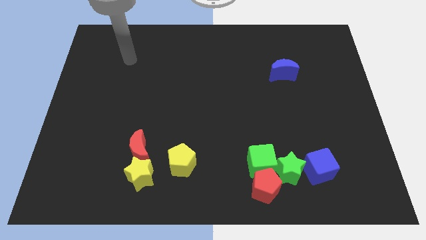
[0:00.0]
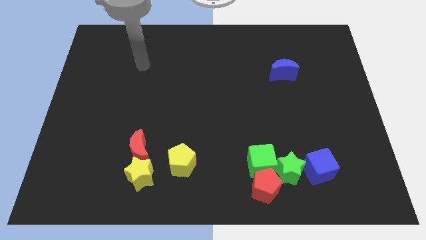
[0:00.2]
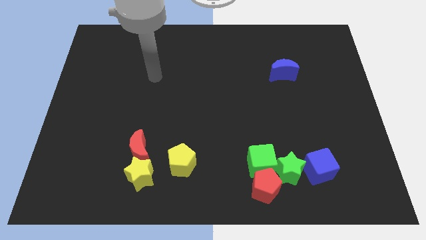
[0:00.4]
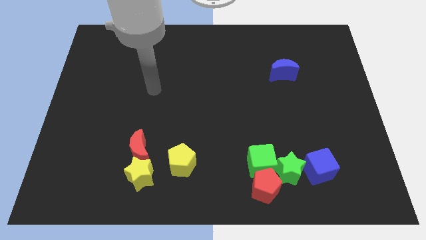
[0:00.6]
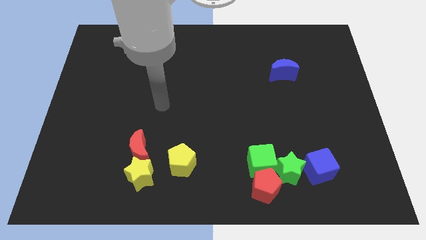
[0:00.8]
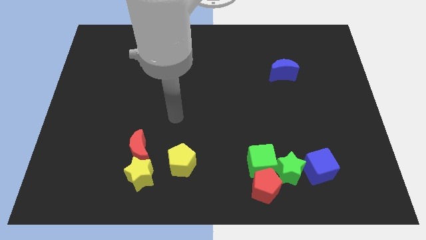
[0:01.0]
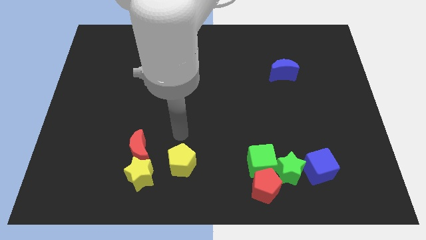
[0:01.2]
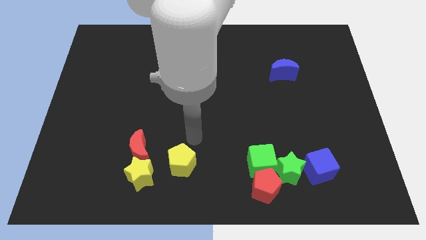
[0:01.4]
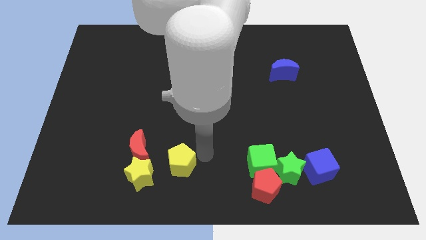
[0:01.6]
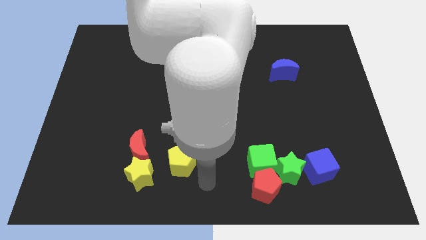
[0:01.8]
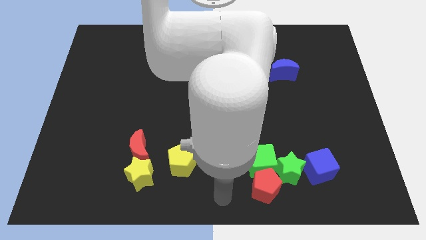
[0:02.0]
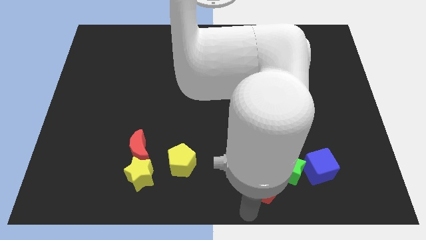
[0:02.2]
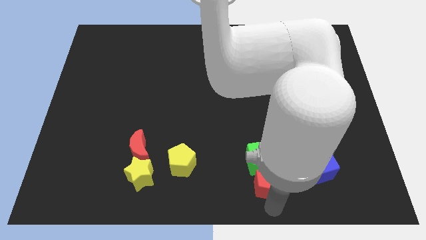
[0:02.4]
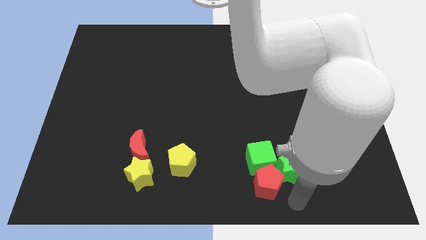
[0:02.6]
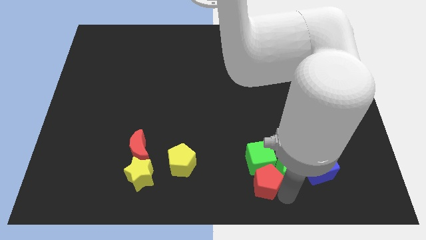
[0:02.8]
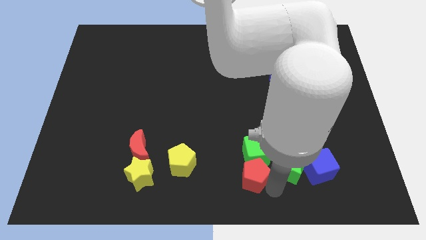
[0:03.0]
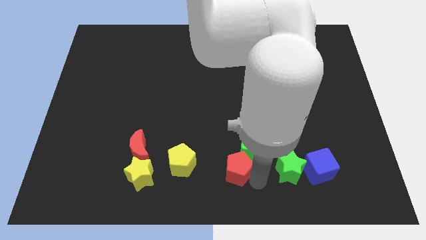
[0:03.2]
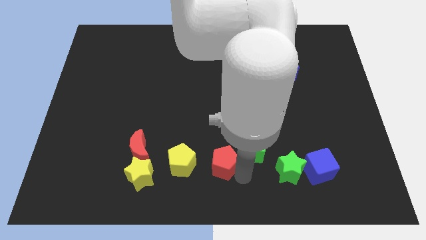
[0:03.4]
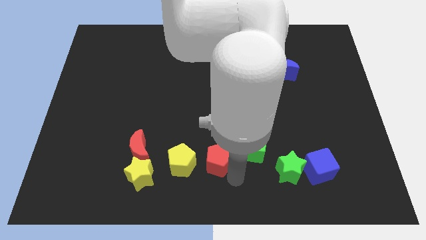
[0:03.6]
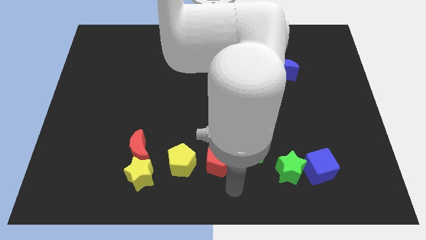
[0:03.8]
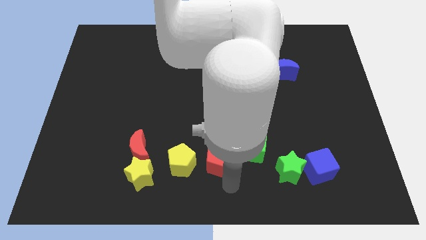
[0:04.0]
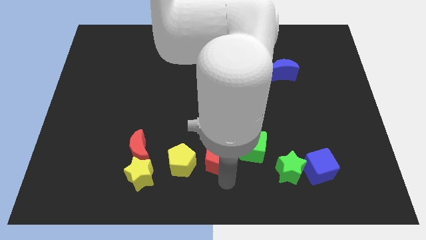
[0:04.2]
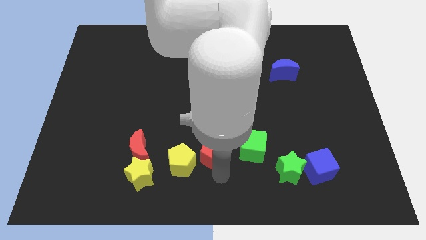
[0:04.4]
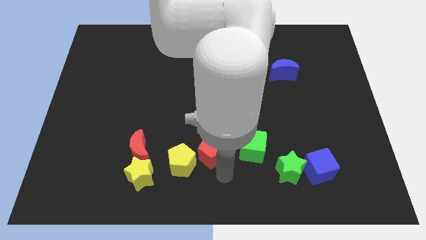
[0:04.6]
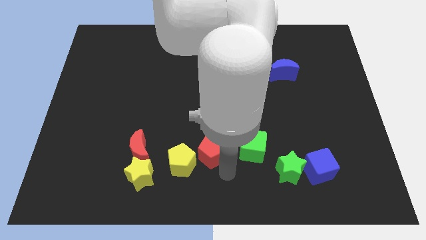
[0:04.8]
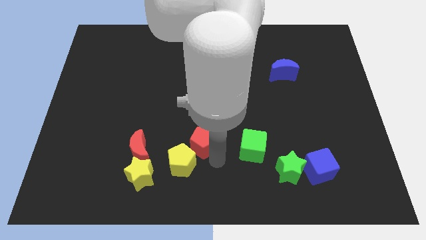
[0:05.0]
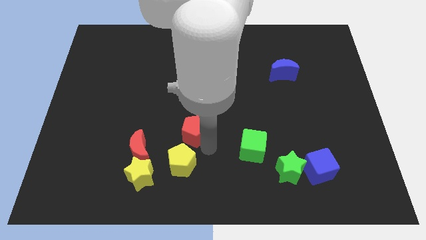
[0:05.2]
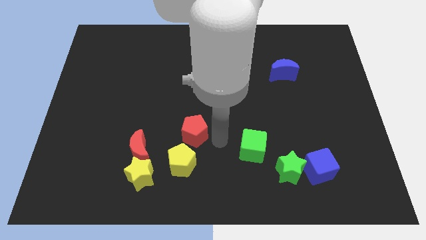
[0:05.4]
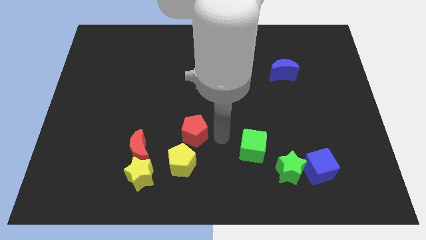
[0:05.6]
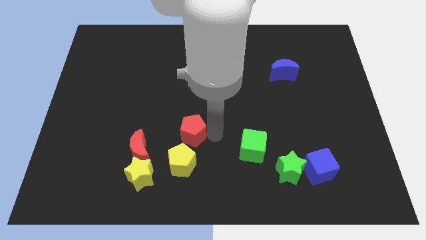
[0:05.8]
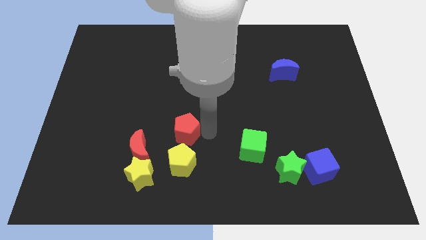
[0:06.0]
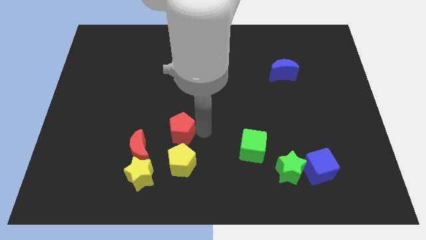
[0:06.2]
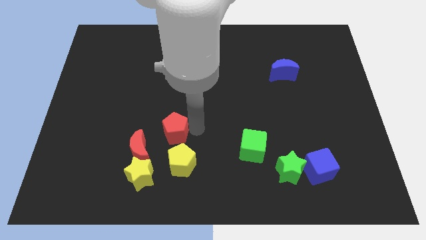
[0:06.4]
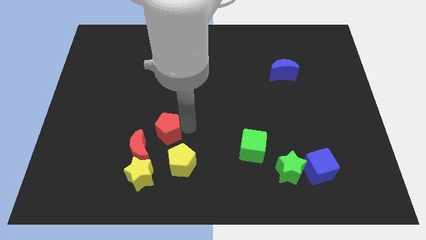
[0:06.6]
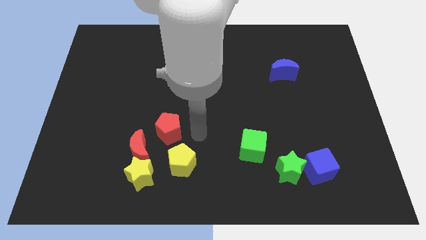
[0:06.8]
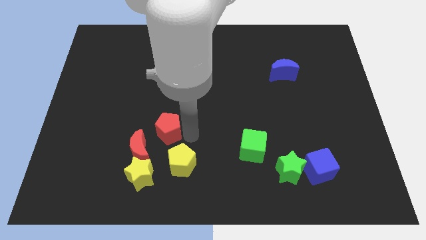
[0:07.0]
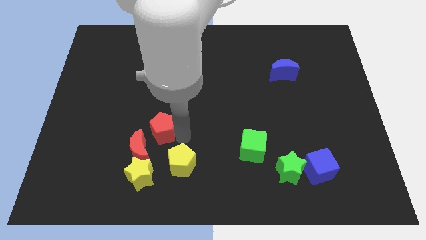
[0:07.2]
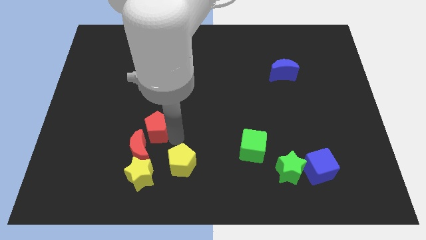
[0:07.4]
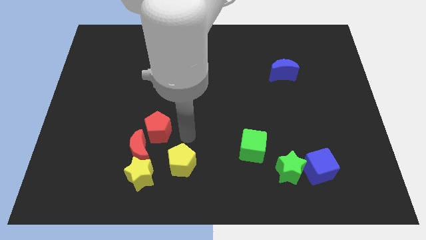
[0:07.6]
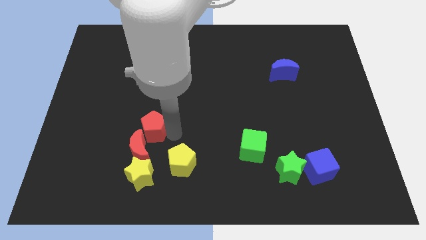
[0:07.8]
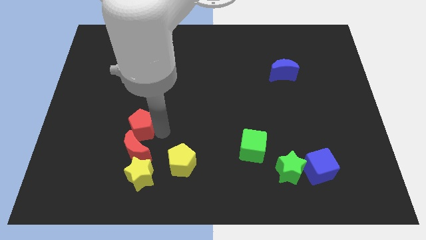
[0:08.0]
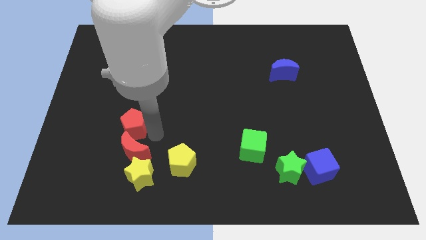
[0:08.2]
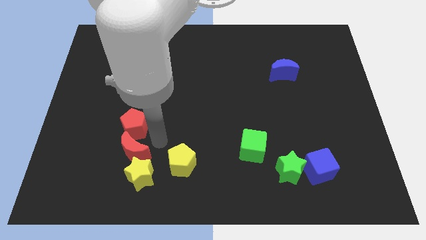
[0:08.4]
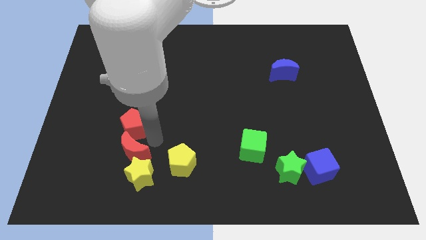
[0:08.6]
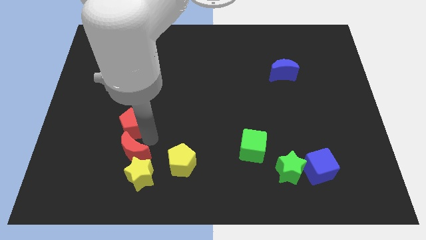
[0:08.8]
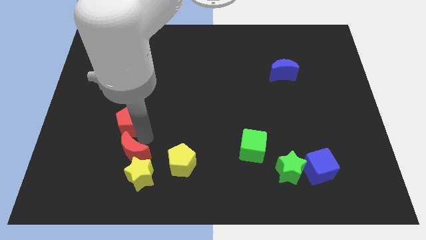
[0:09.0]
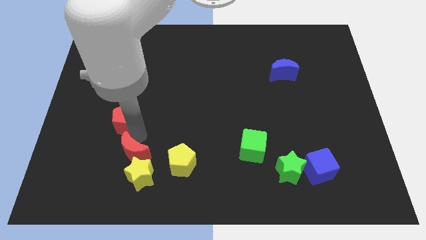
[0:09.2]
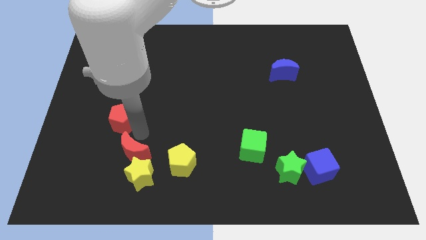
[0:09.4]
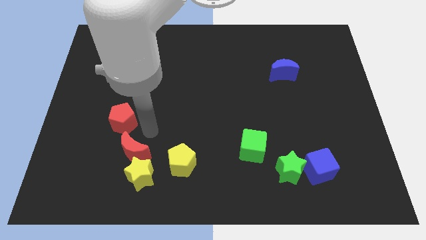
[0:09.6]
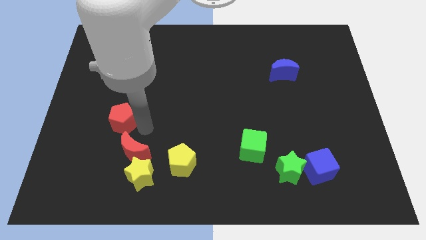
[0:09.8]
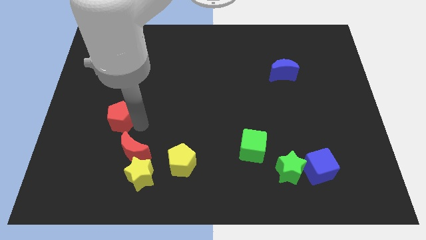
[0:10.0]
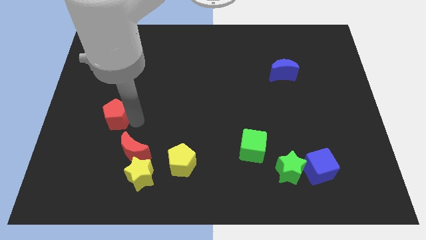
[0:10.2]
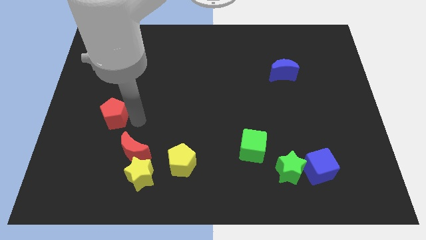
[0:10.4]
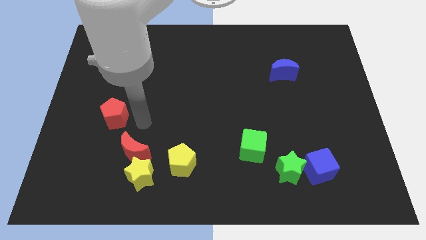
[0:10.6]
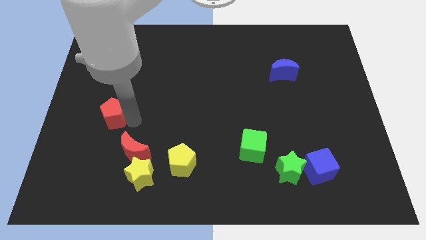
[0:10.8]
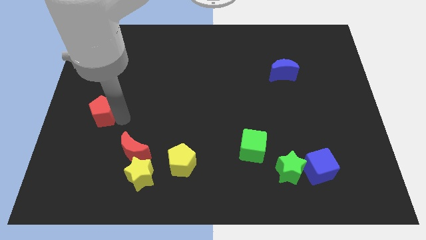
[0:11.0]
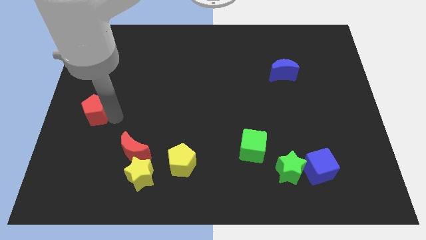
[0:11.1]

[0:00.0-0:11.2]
move the red pentagon to the left side
